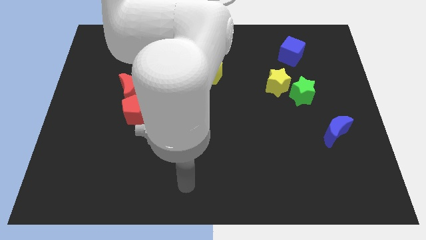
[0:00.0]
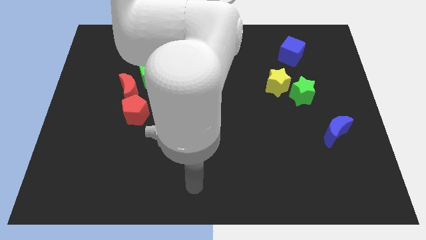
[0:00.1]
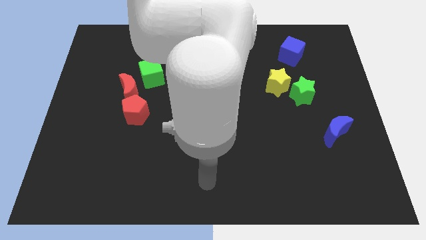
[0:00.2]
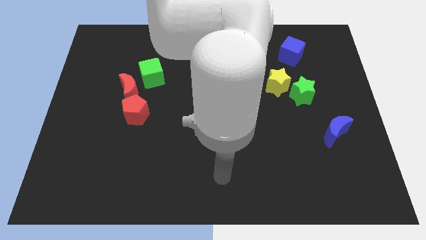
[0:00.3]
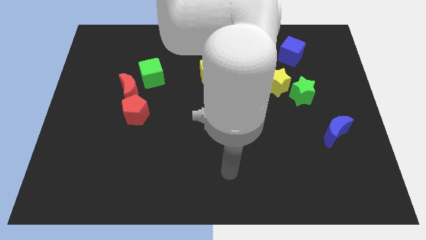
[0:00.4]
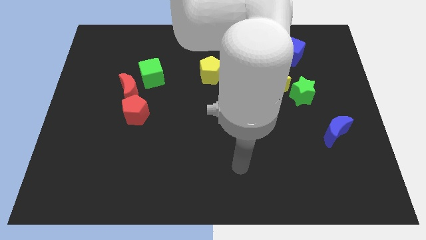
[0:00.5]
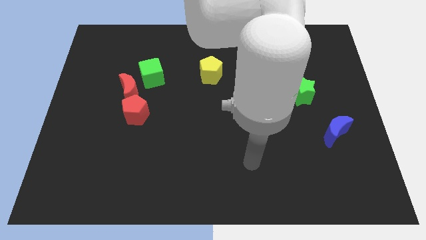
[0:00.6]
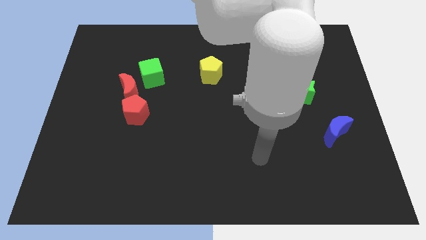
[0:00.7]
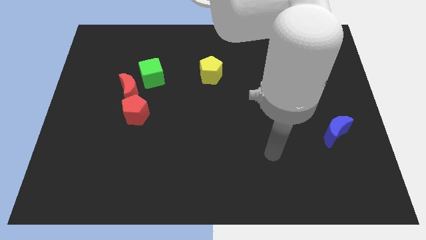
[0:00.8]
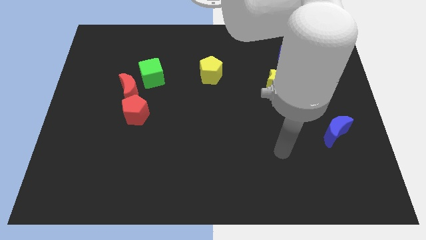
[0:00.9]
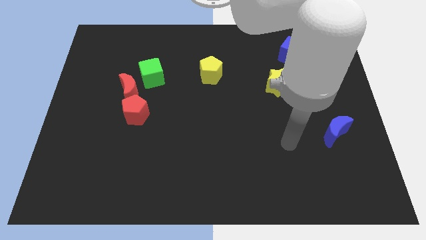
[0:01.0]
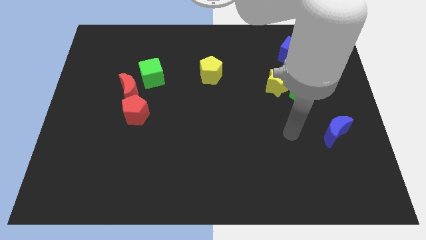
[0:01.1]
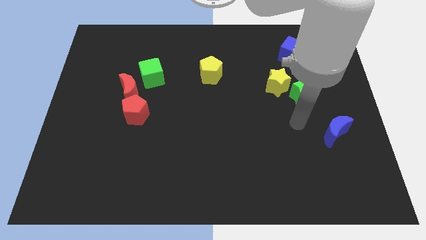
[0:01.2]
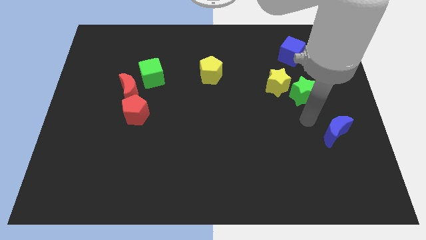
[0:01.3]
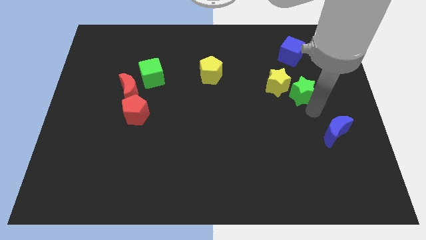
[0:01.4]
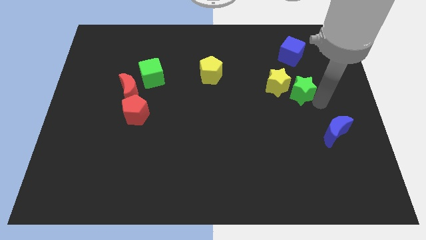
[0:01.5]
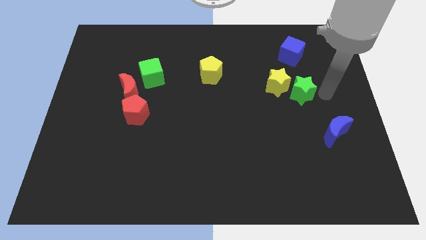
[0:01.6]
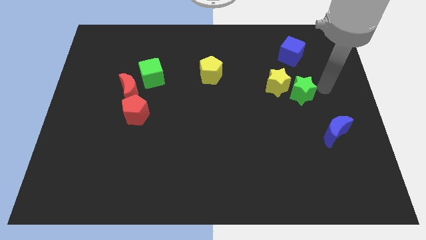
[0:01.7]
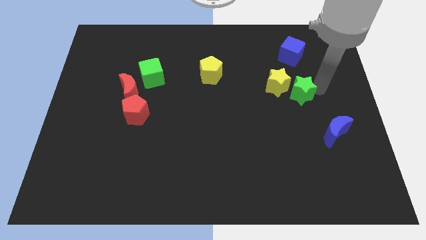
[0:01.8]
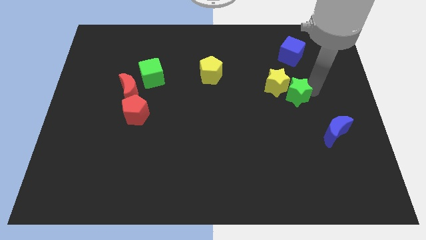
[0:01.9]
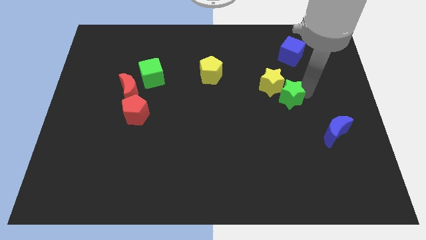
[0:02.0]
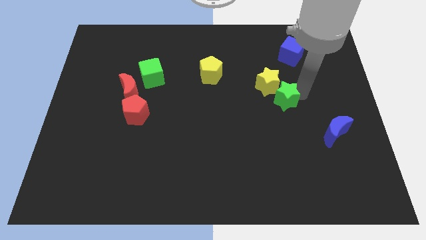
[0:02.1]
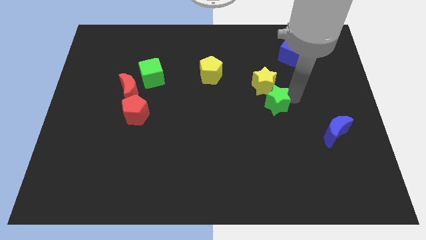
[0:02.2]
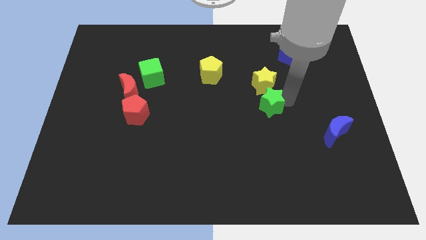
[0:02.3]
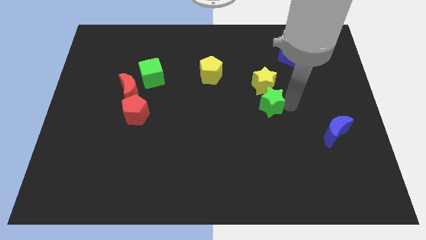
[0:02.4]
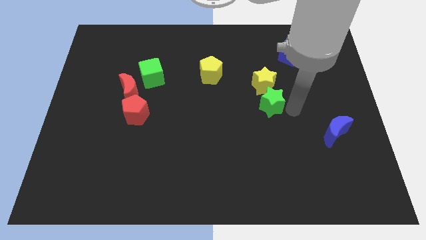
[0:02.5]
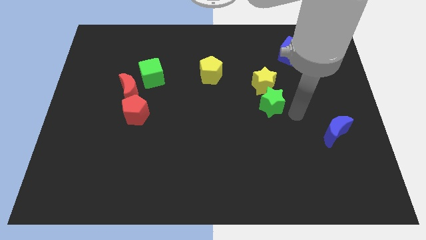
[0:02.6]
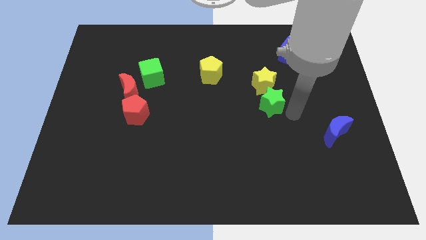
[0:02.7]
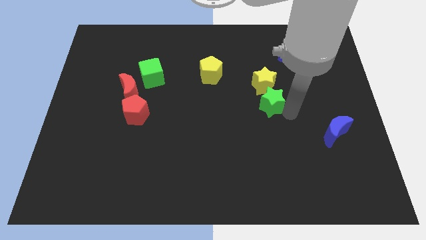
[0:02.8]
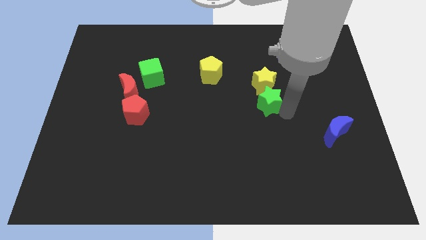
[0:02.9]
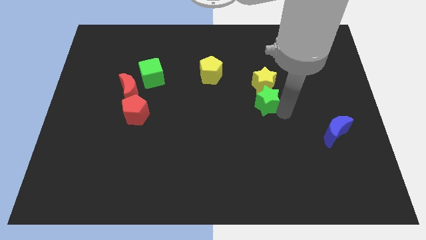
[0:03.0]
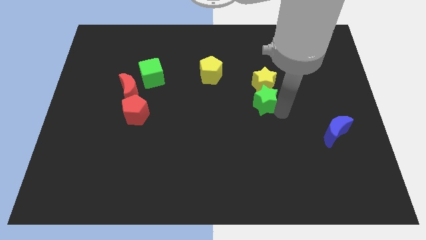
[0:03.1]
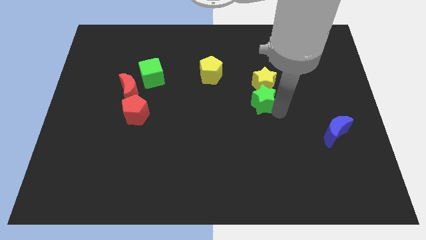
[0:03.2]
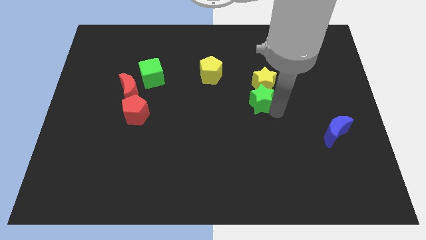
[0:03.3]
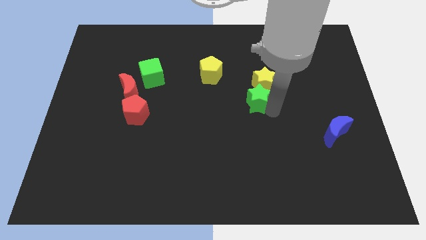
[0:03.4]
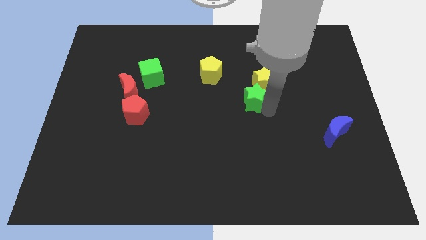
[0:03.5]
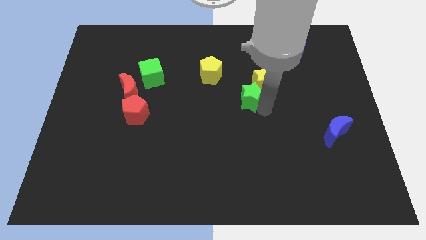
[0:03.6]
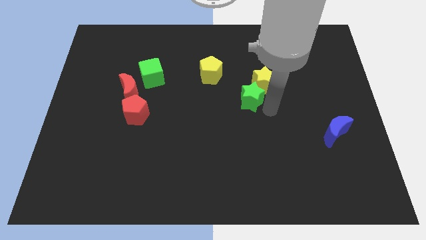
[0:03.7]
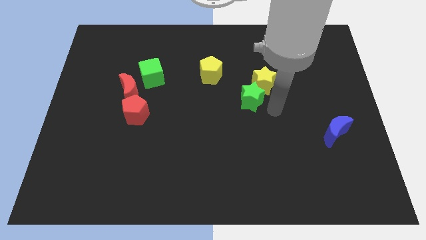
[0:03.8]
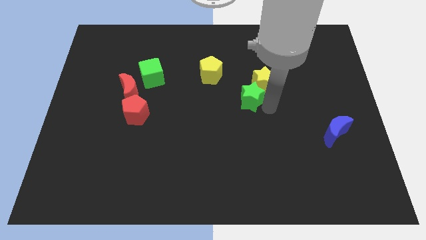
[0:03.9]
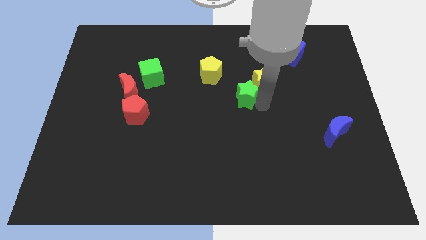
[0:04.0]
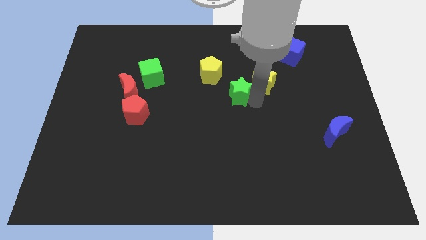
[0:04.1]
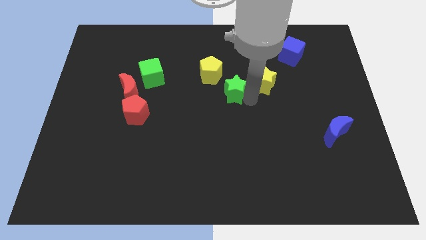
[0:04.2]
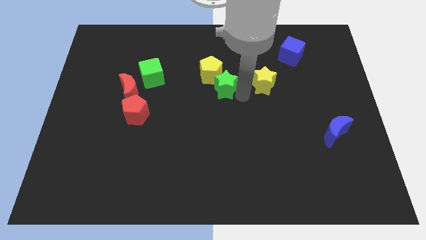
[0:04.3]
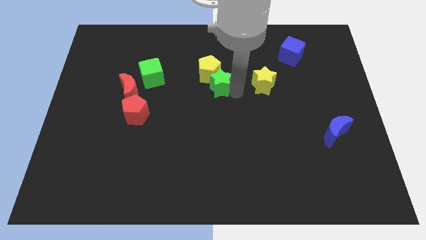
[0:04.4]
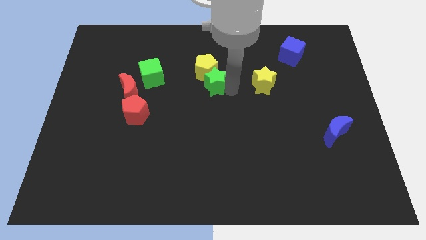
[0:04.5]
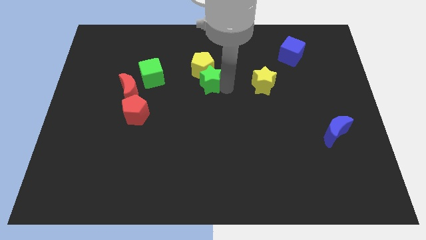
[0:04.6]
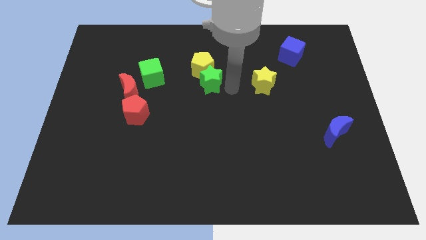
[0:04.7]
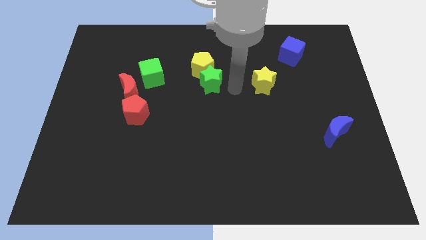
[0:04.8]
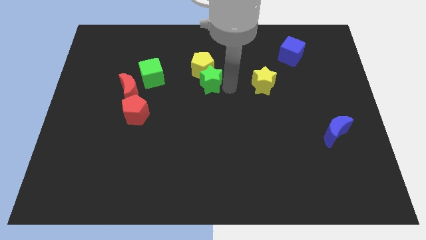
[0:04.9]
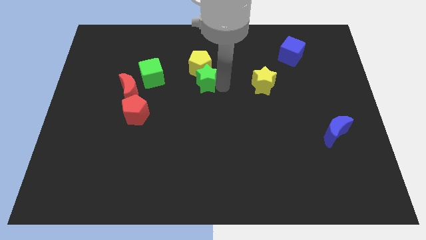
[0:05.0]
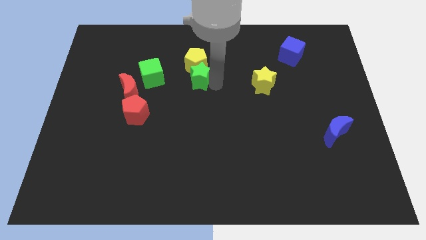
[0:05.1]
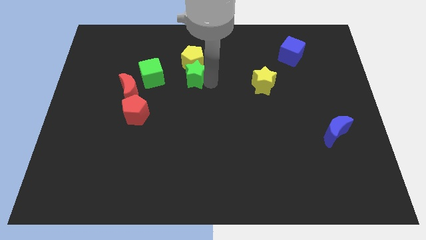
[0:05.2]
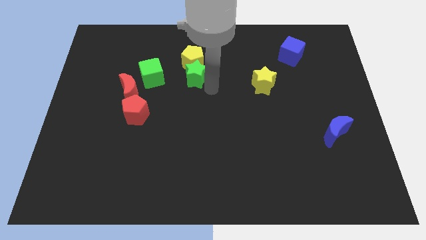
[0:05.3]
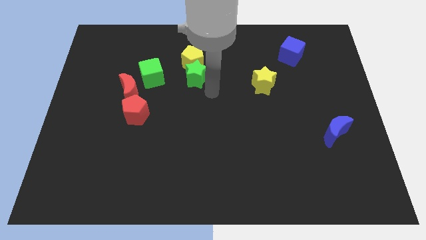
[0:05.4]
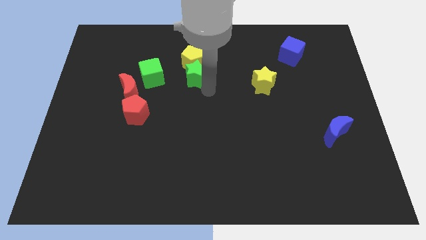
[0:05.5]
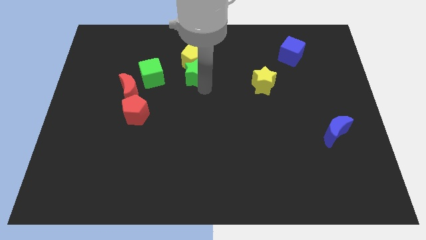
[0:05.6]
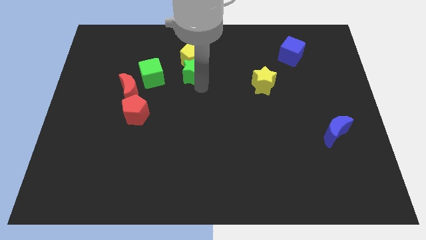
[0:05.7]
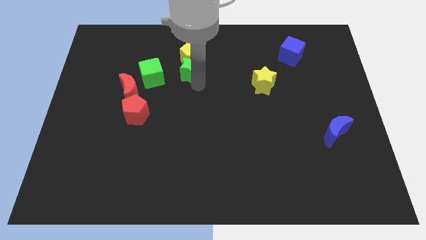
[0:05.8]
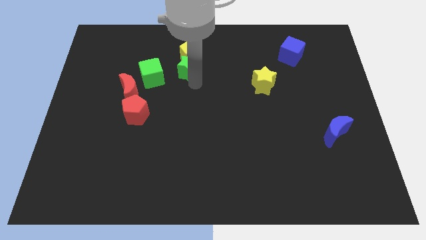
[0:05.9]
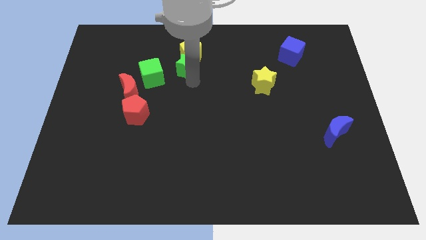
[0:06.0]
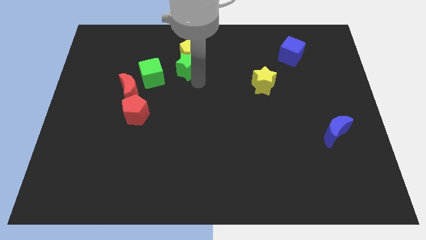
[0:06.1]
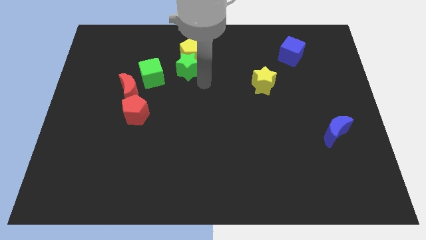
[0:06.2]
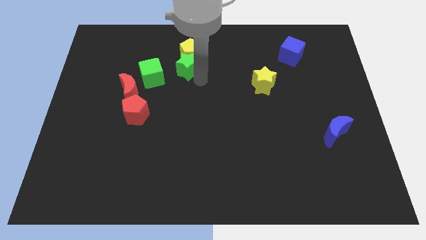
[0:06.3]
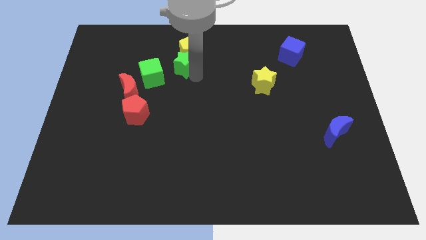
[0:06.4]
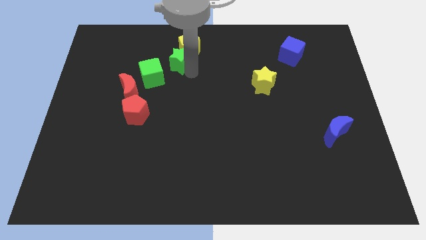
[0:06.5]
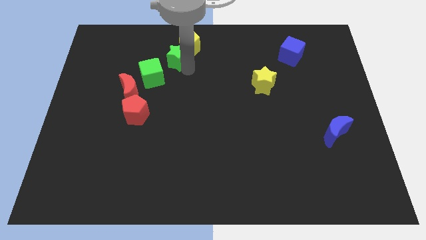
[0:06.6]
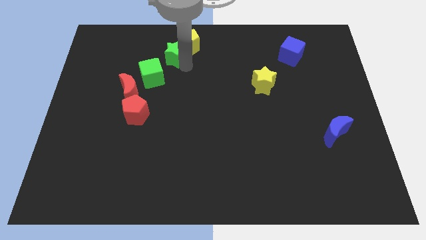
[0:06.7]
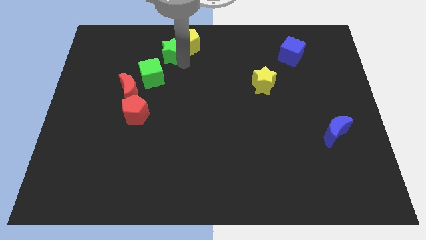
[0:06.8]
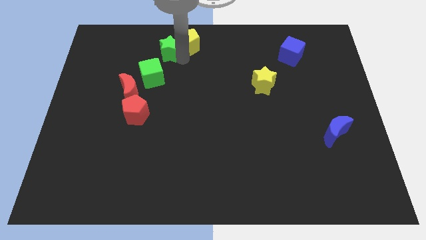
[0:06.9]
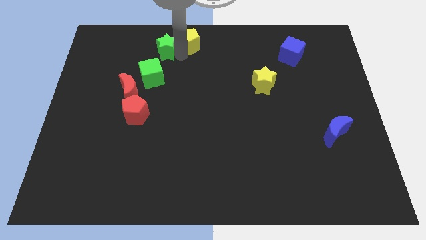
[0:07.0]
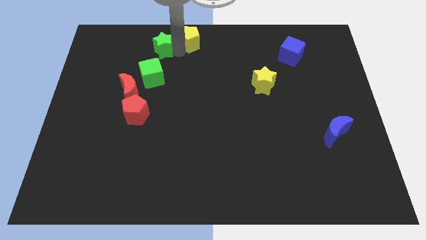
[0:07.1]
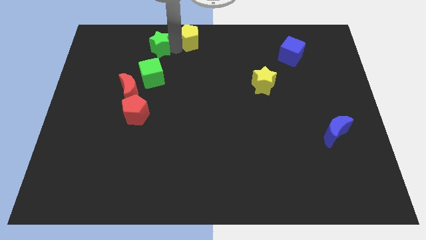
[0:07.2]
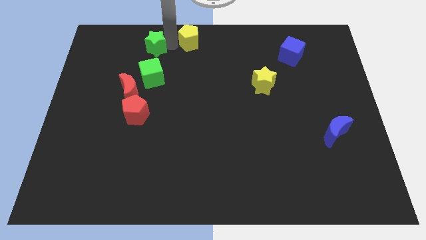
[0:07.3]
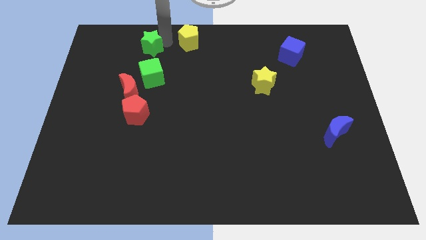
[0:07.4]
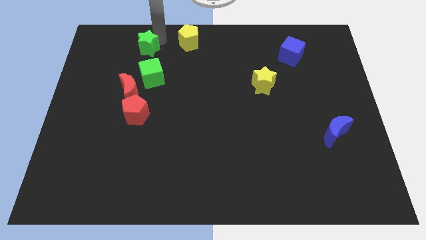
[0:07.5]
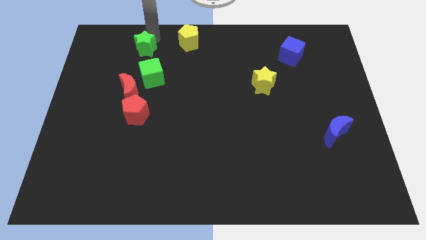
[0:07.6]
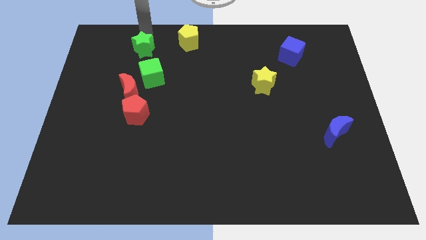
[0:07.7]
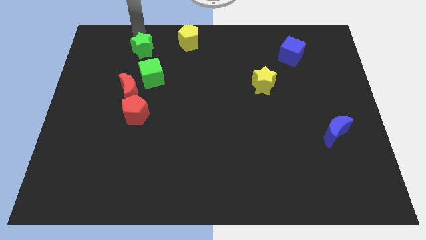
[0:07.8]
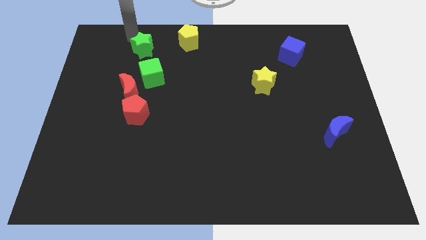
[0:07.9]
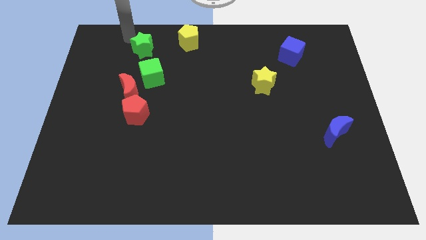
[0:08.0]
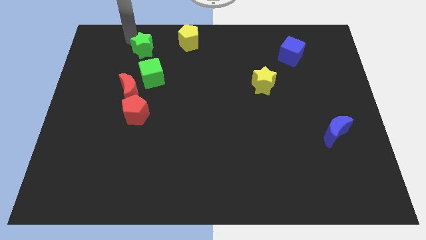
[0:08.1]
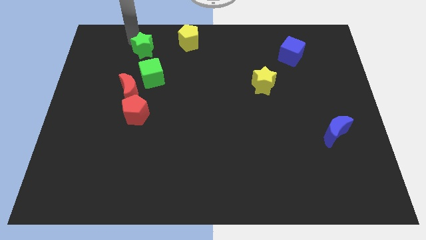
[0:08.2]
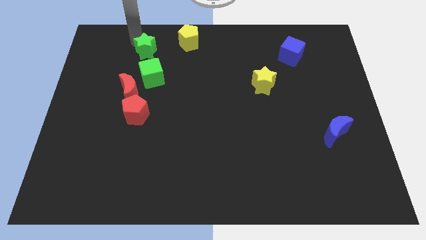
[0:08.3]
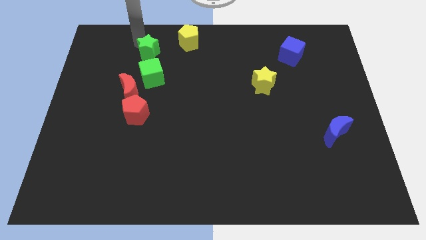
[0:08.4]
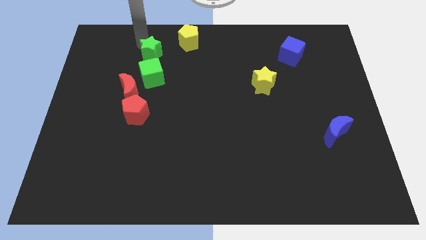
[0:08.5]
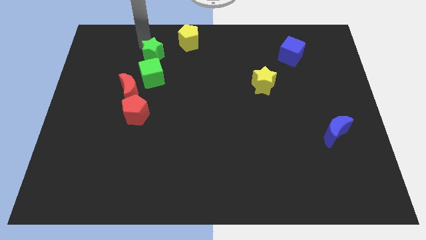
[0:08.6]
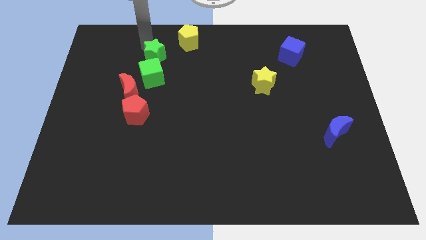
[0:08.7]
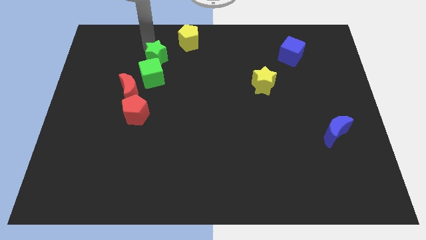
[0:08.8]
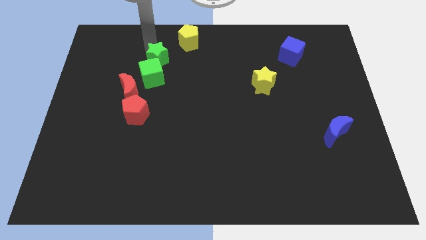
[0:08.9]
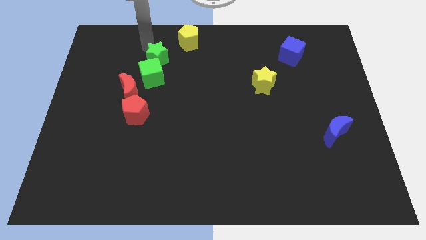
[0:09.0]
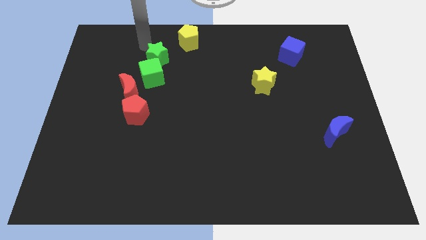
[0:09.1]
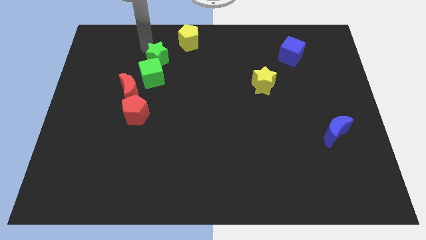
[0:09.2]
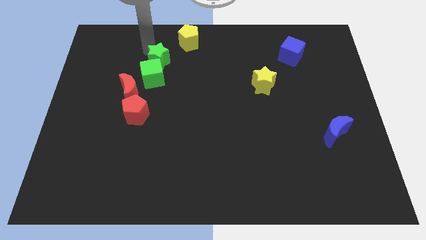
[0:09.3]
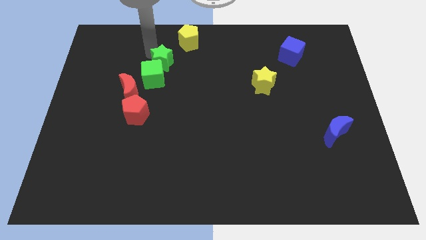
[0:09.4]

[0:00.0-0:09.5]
push the green star diagonally up and to the right of the red moon
